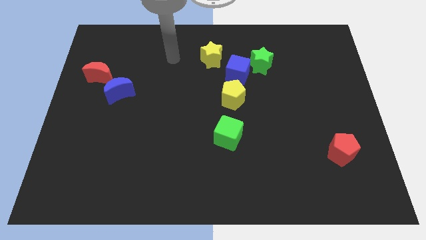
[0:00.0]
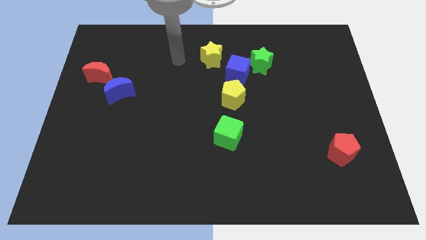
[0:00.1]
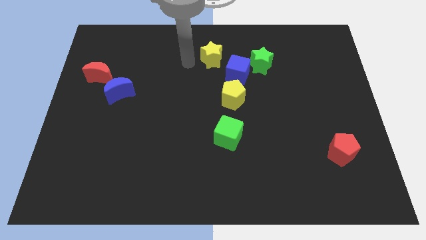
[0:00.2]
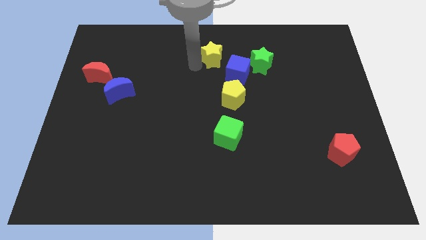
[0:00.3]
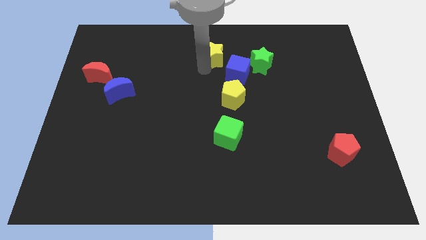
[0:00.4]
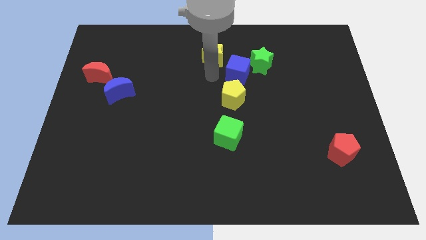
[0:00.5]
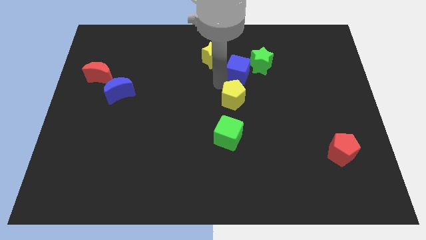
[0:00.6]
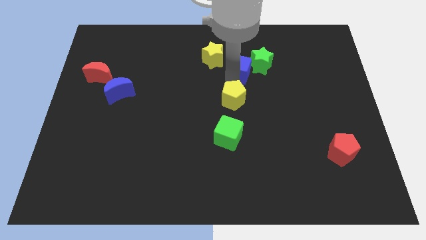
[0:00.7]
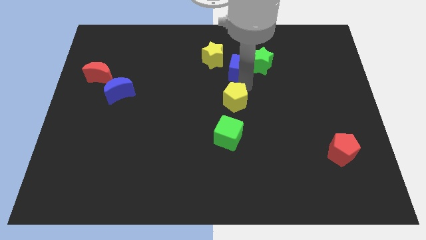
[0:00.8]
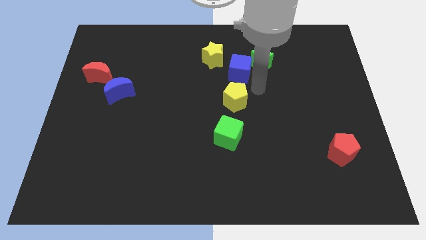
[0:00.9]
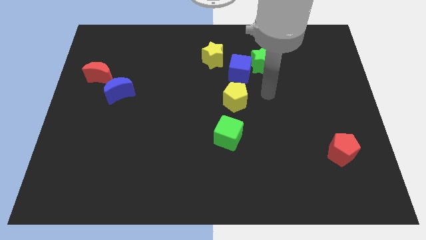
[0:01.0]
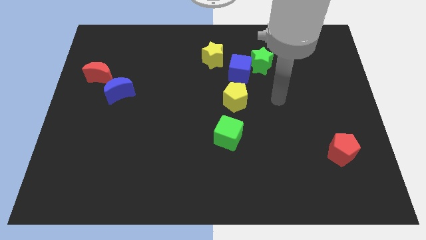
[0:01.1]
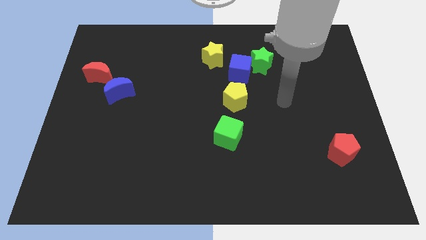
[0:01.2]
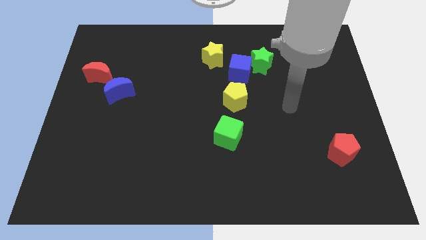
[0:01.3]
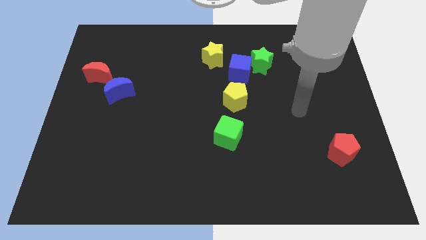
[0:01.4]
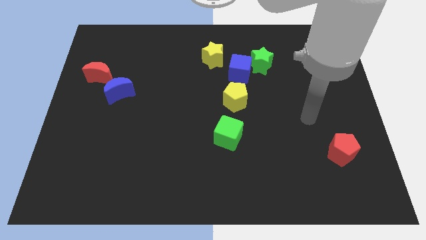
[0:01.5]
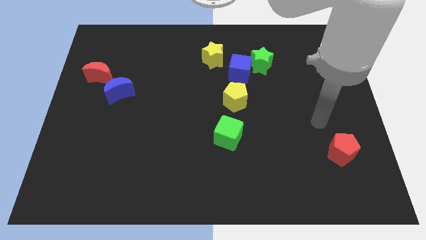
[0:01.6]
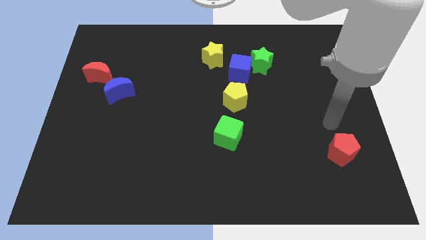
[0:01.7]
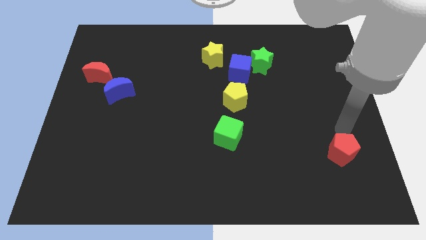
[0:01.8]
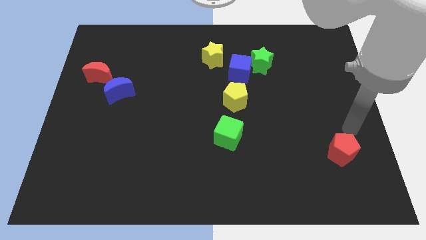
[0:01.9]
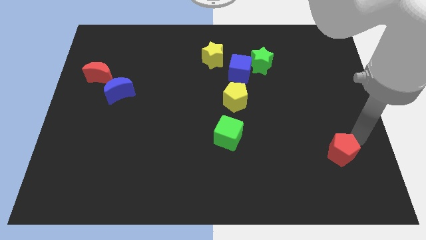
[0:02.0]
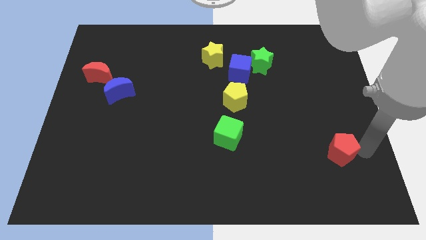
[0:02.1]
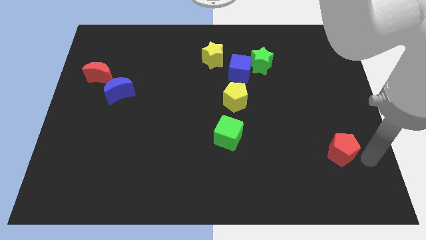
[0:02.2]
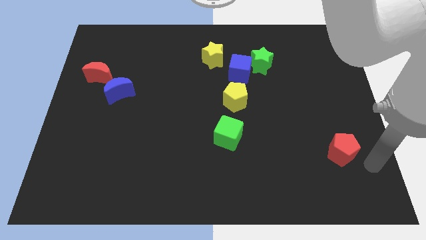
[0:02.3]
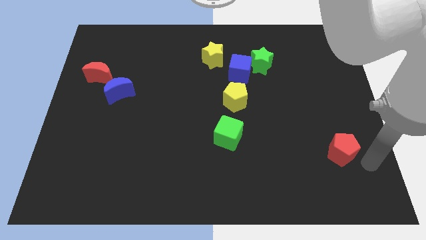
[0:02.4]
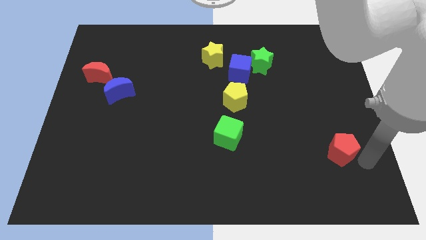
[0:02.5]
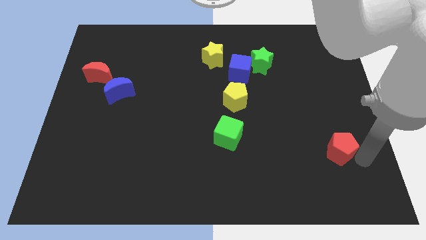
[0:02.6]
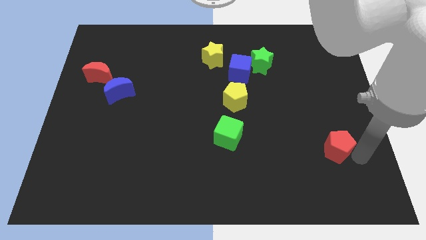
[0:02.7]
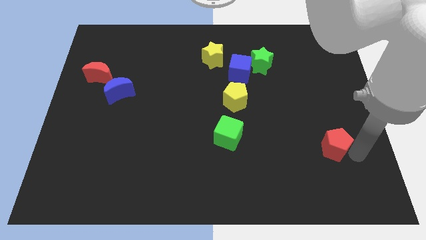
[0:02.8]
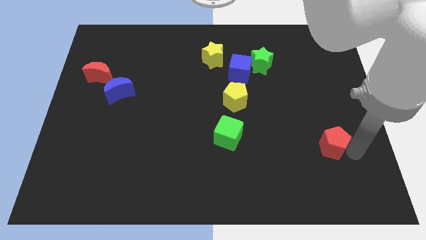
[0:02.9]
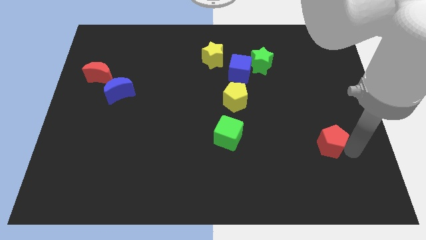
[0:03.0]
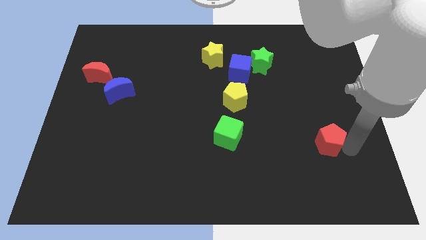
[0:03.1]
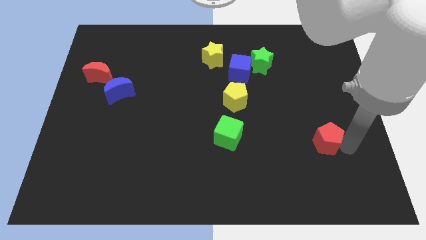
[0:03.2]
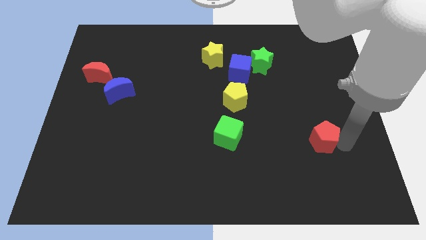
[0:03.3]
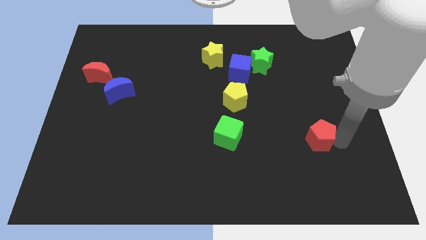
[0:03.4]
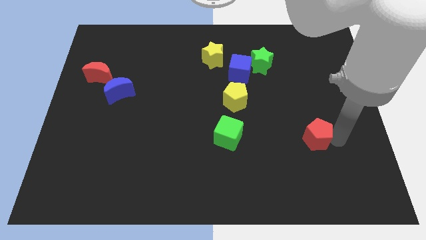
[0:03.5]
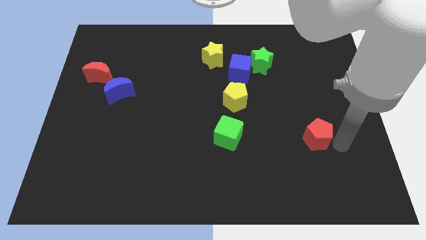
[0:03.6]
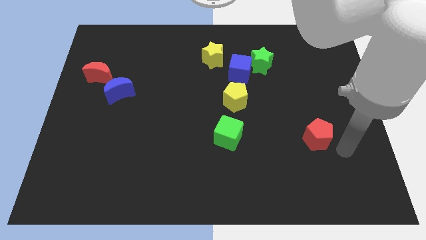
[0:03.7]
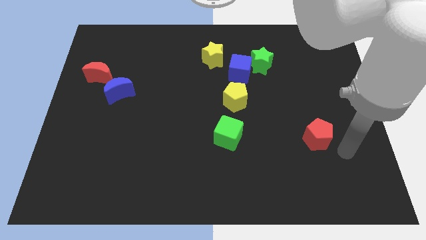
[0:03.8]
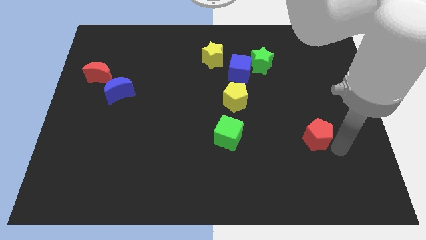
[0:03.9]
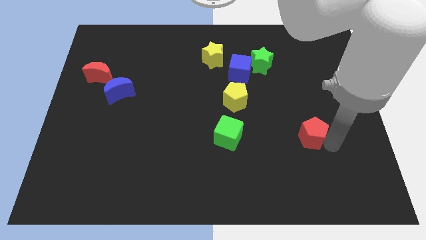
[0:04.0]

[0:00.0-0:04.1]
slightly move the red pentagon upwards and to the left

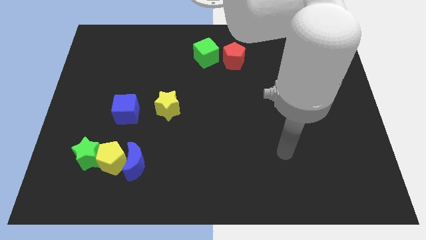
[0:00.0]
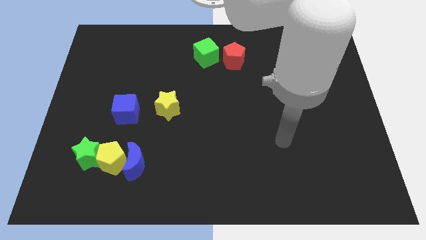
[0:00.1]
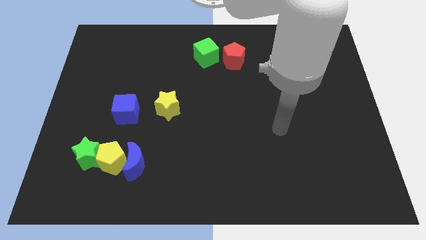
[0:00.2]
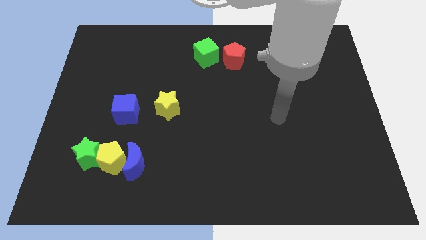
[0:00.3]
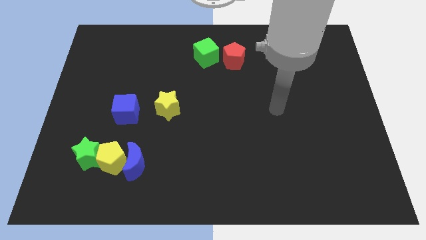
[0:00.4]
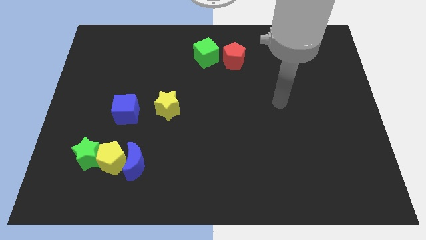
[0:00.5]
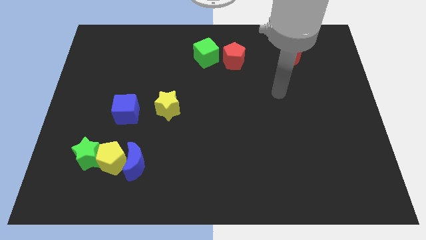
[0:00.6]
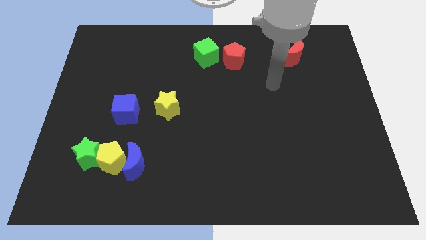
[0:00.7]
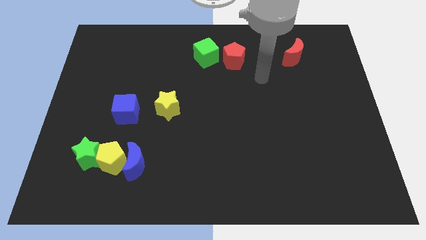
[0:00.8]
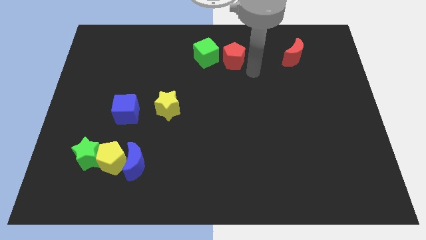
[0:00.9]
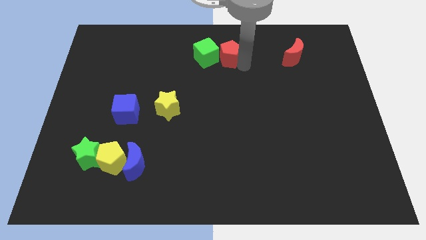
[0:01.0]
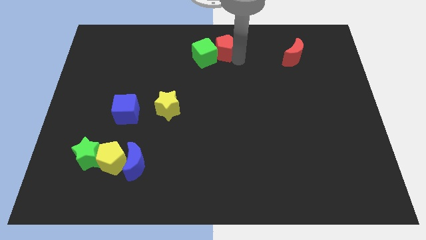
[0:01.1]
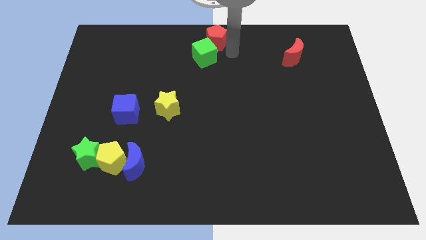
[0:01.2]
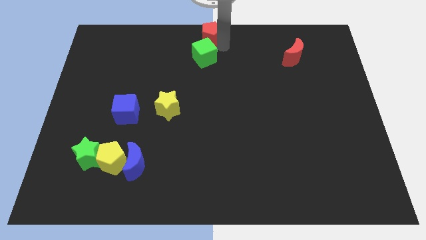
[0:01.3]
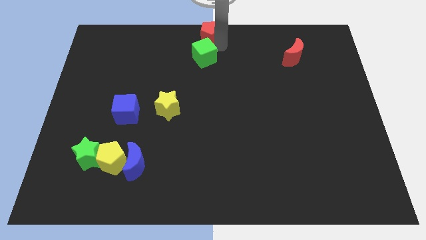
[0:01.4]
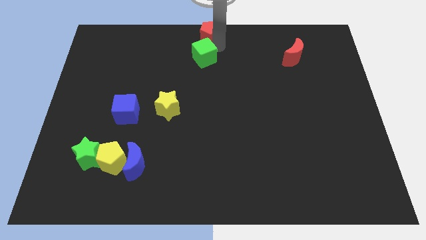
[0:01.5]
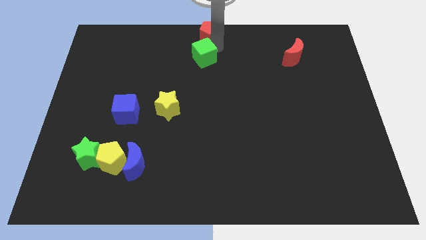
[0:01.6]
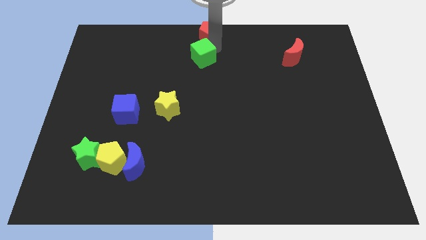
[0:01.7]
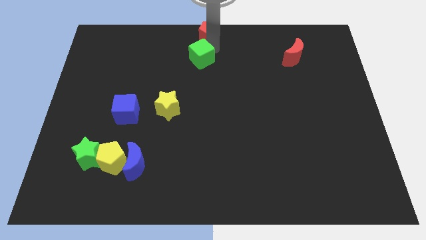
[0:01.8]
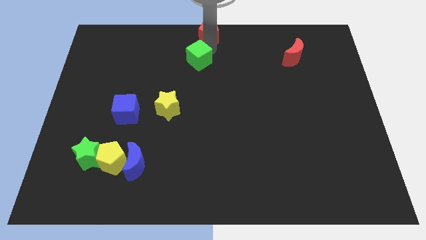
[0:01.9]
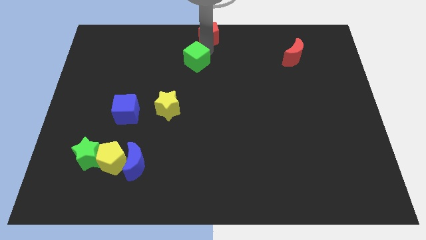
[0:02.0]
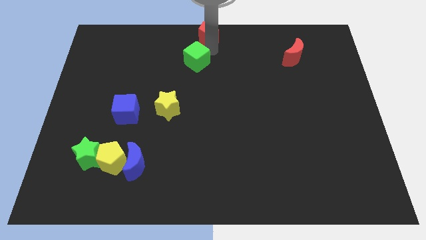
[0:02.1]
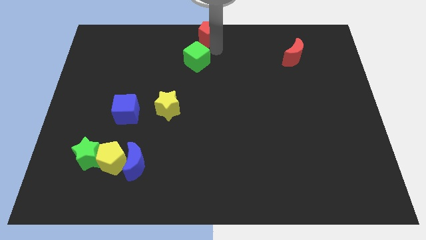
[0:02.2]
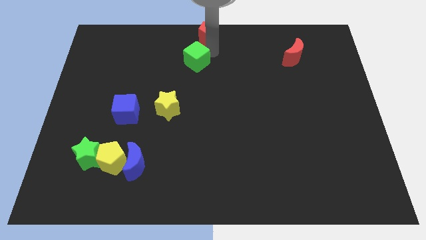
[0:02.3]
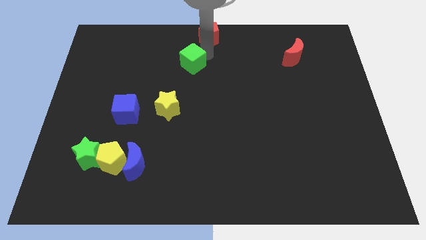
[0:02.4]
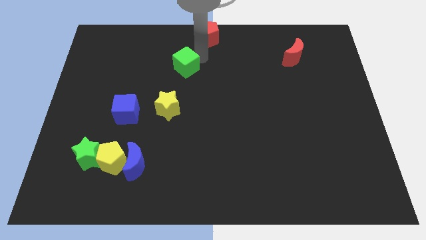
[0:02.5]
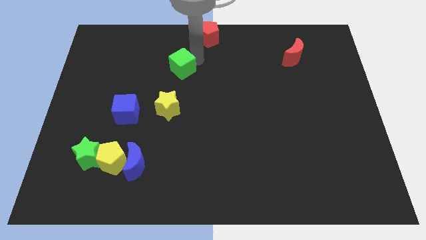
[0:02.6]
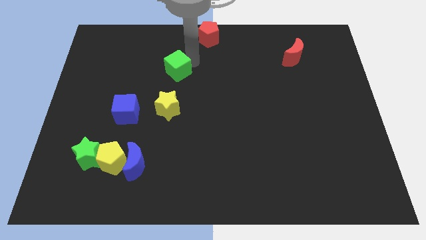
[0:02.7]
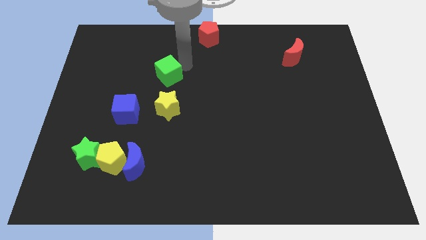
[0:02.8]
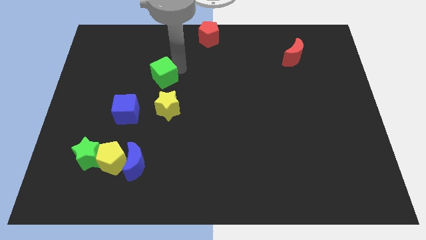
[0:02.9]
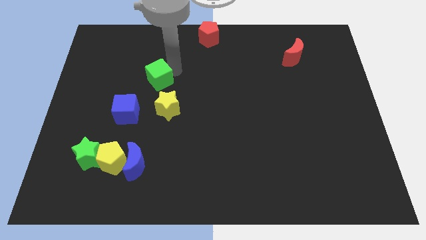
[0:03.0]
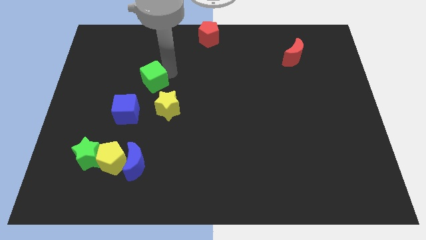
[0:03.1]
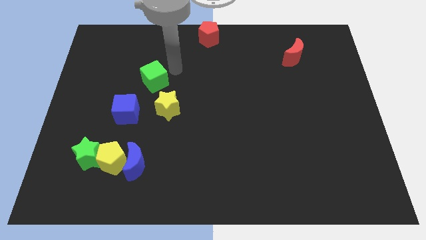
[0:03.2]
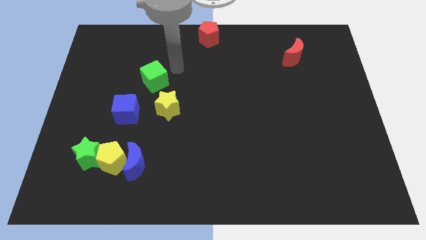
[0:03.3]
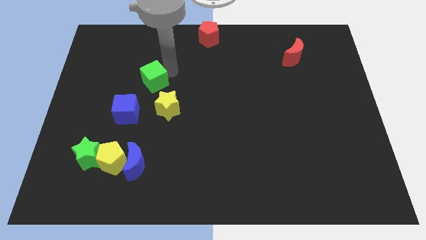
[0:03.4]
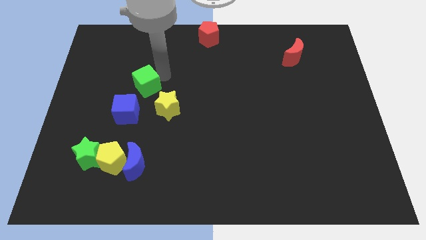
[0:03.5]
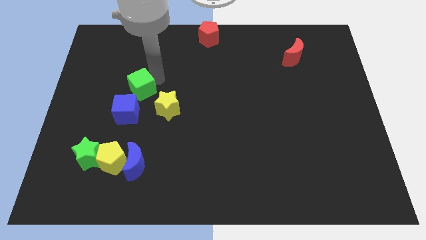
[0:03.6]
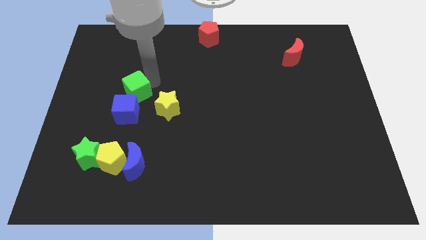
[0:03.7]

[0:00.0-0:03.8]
move the green cube diagonally downwards and to the left
